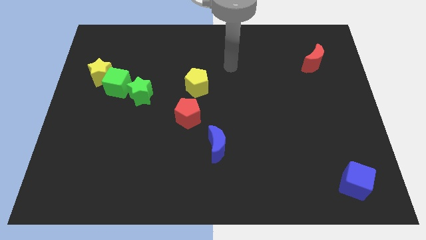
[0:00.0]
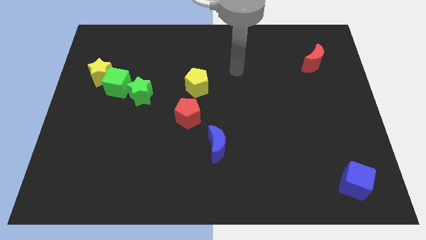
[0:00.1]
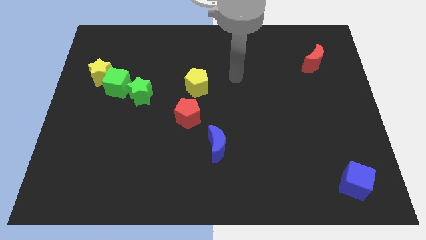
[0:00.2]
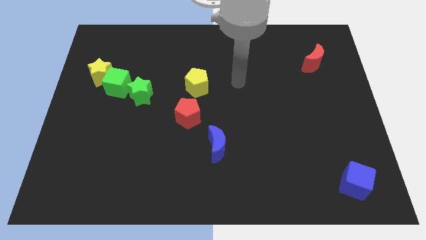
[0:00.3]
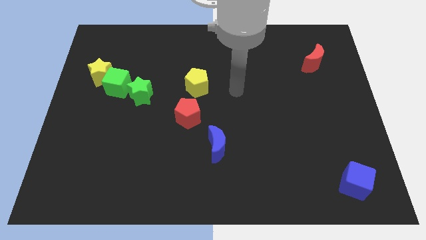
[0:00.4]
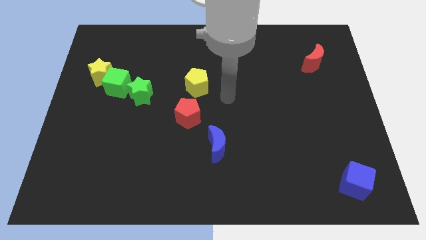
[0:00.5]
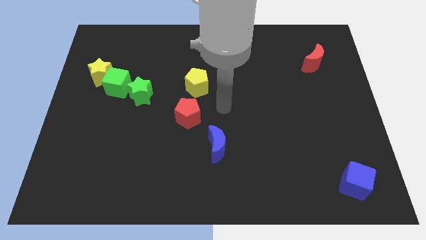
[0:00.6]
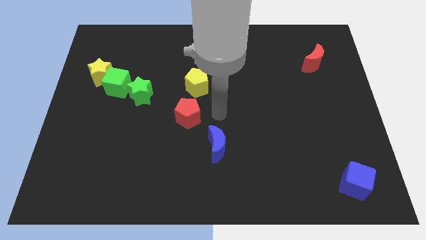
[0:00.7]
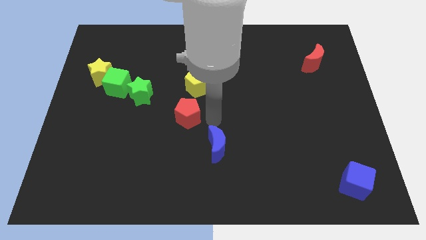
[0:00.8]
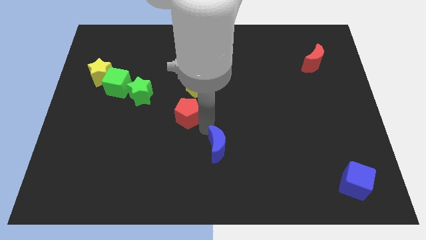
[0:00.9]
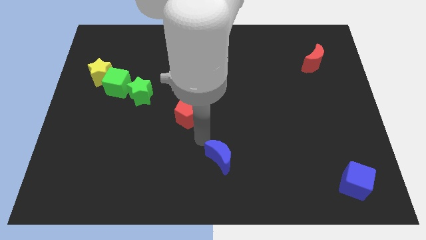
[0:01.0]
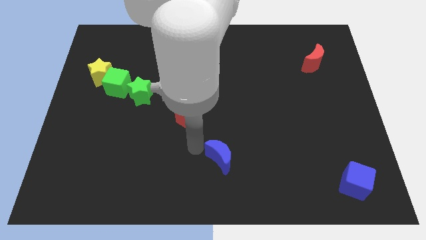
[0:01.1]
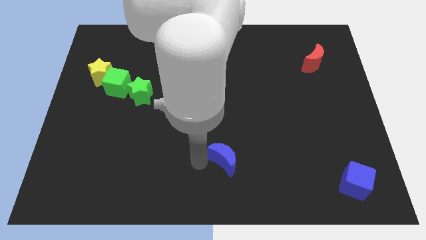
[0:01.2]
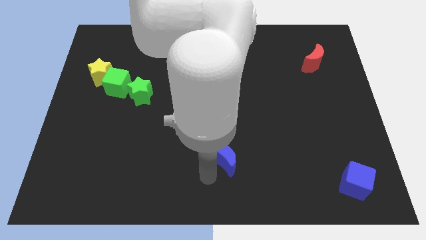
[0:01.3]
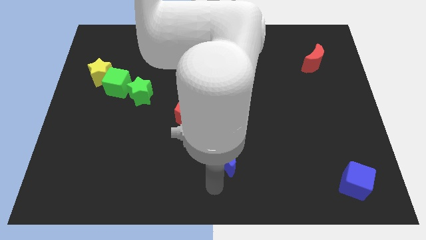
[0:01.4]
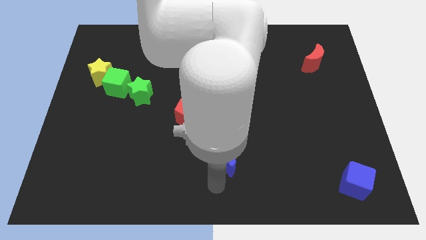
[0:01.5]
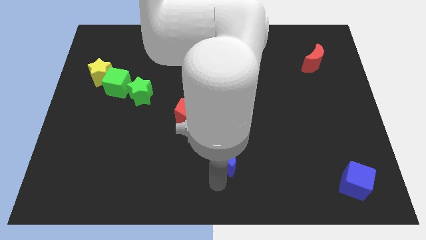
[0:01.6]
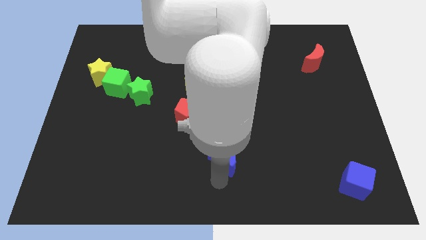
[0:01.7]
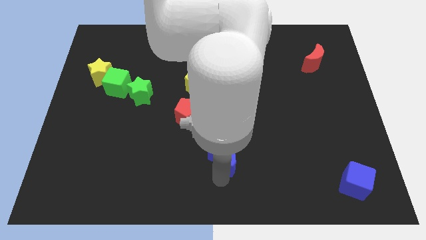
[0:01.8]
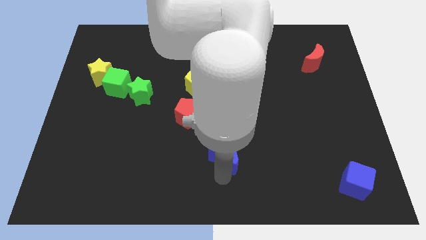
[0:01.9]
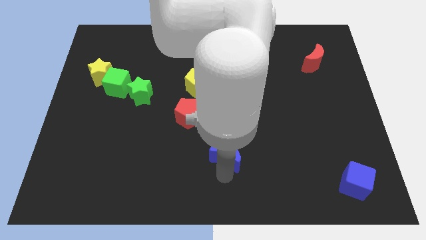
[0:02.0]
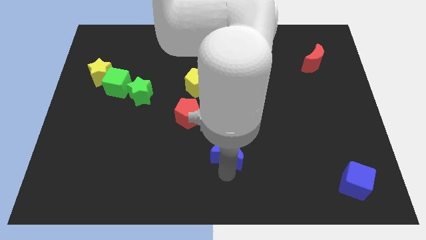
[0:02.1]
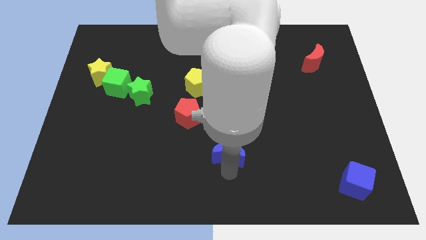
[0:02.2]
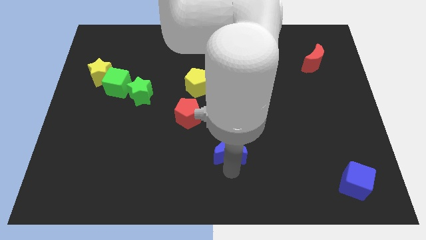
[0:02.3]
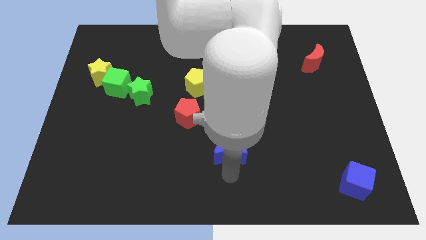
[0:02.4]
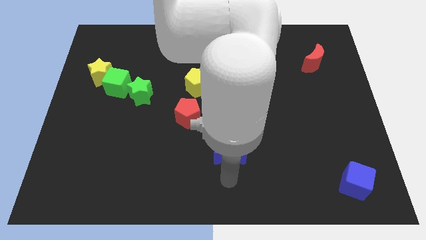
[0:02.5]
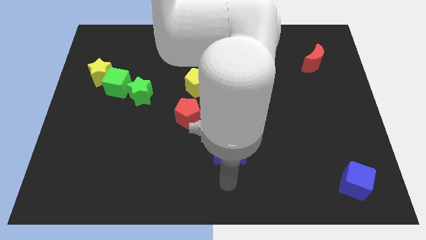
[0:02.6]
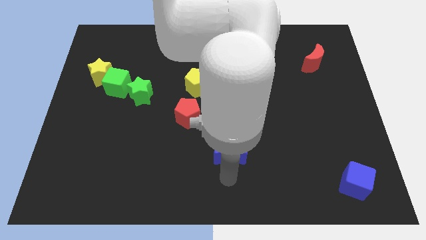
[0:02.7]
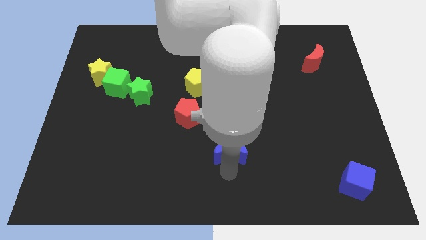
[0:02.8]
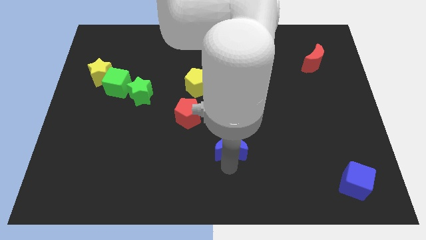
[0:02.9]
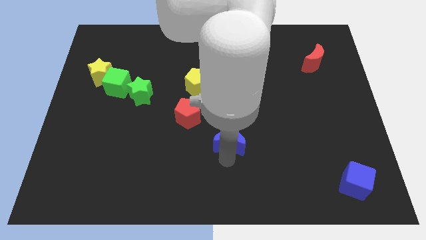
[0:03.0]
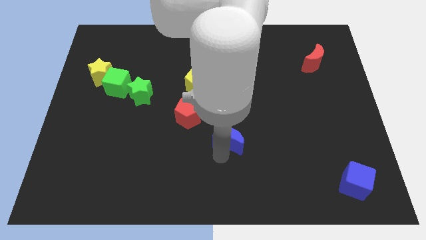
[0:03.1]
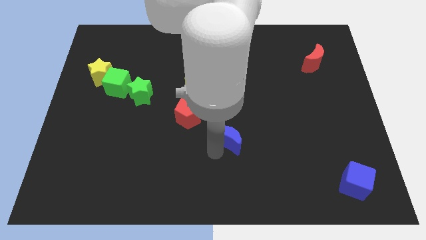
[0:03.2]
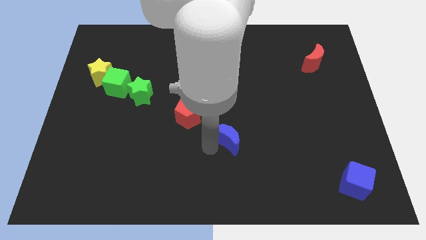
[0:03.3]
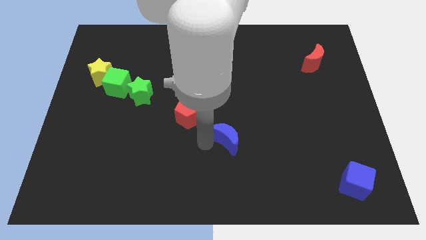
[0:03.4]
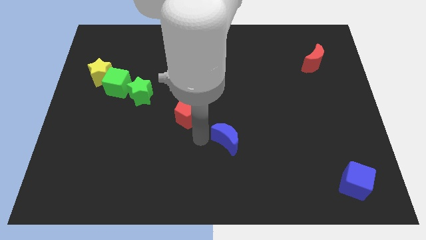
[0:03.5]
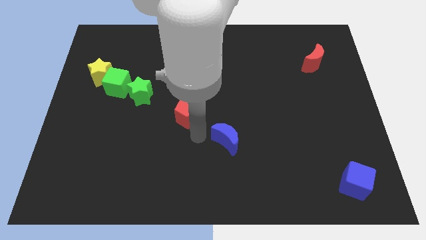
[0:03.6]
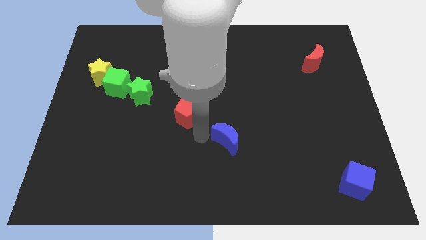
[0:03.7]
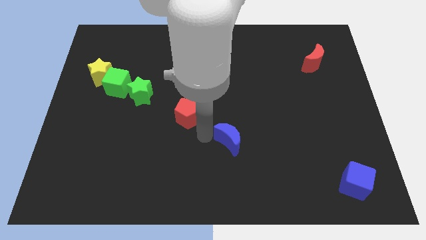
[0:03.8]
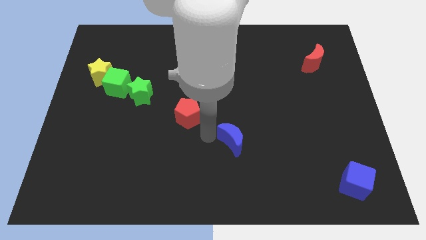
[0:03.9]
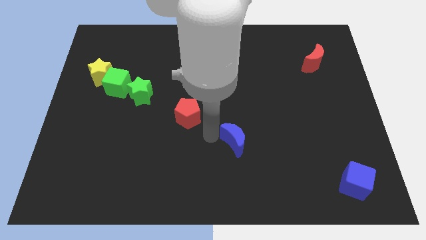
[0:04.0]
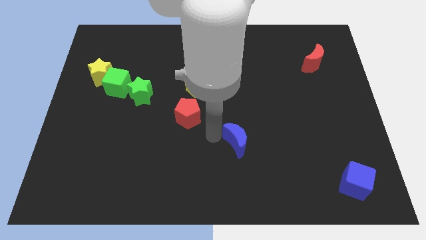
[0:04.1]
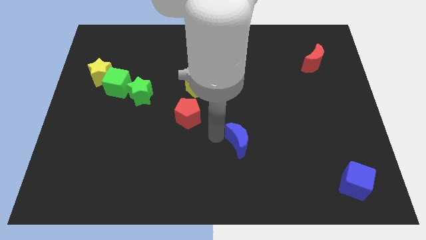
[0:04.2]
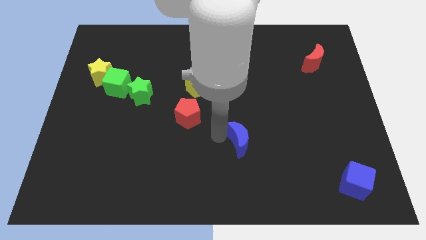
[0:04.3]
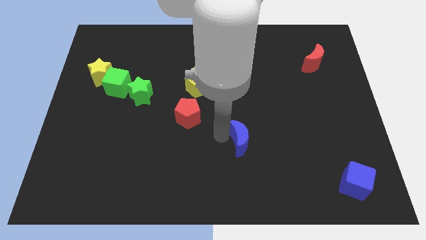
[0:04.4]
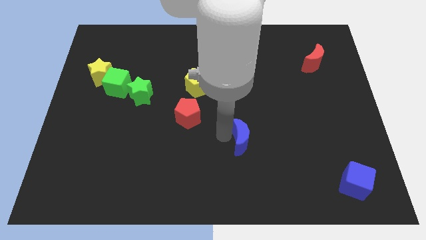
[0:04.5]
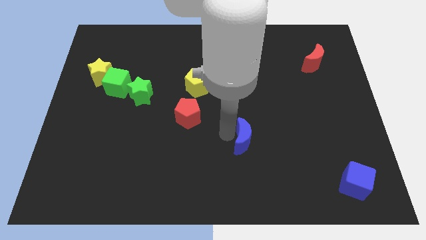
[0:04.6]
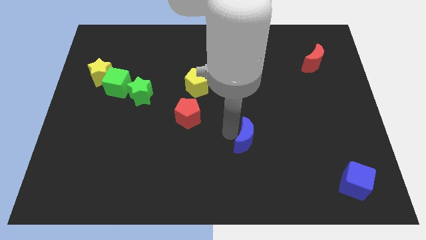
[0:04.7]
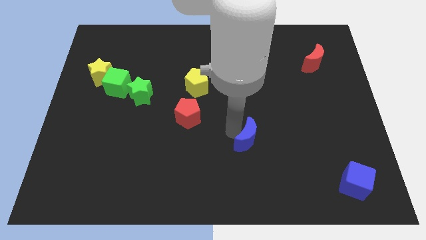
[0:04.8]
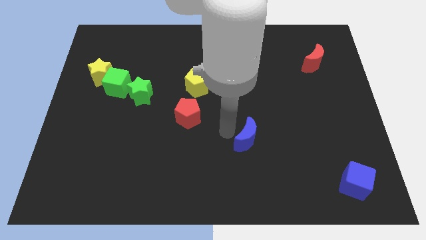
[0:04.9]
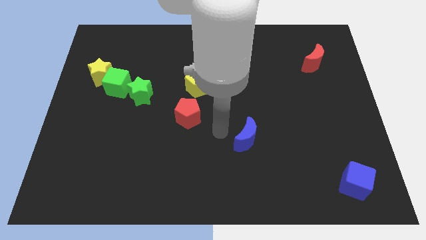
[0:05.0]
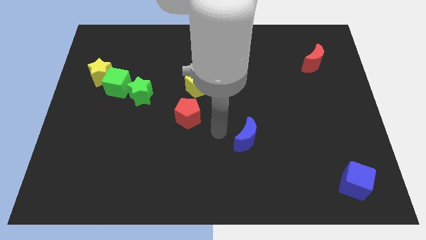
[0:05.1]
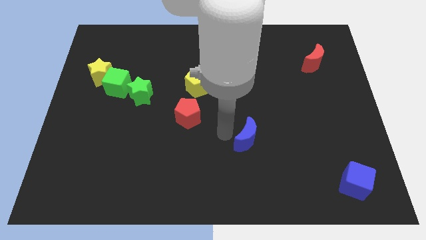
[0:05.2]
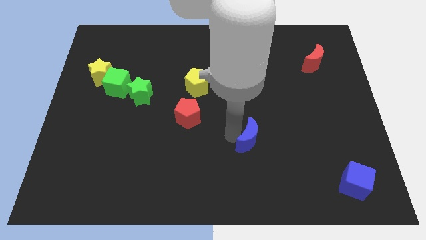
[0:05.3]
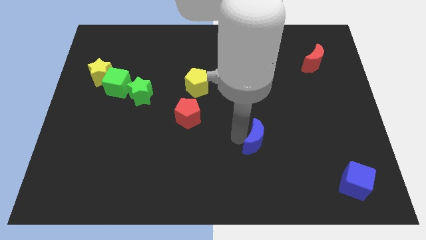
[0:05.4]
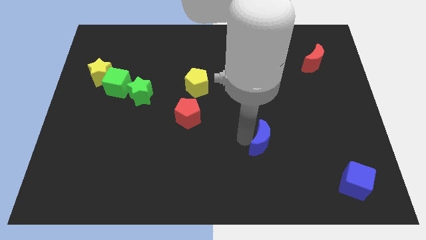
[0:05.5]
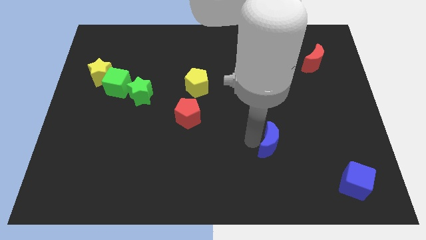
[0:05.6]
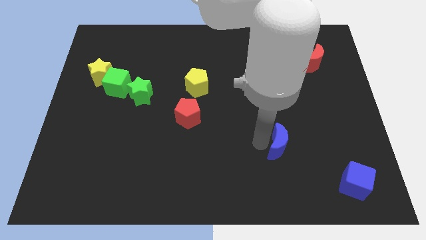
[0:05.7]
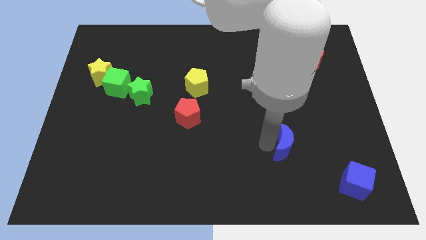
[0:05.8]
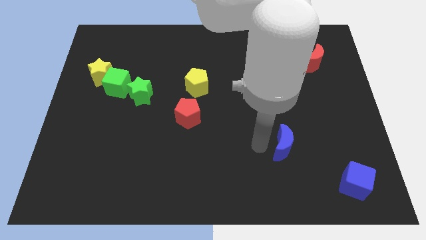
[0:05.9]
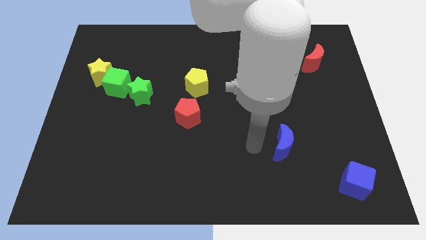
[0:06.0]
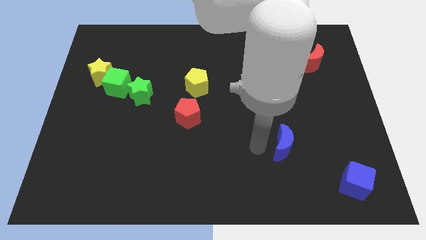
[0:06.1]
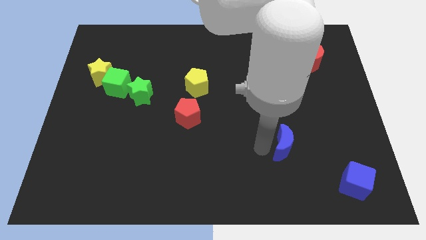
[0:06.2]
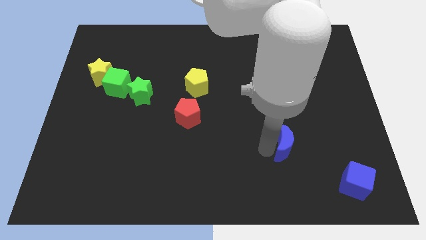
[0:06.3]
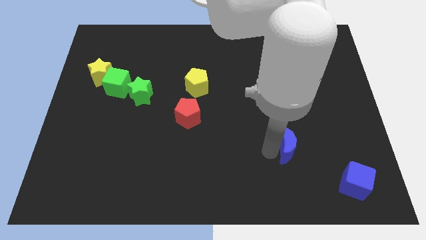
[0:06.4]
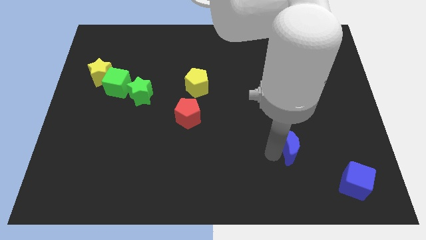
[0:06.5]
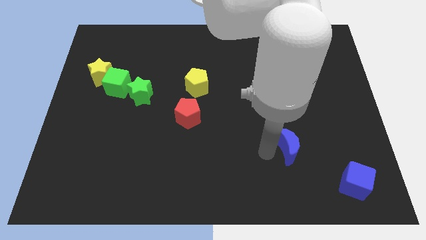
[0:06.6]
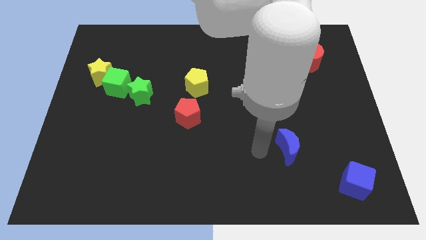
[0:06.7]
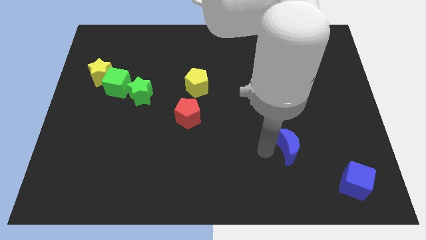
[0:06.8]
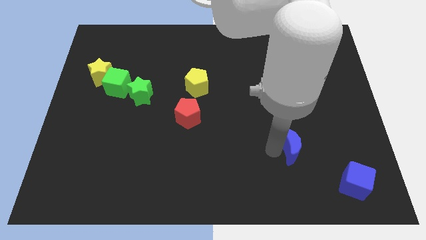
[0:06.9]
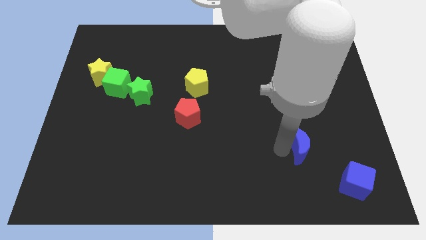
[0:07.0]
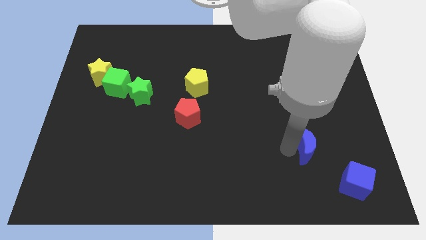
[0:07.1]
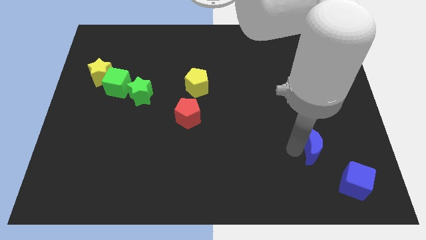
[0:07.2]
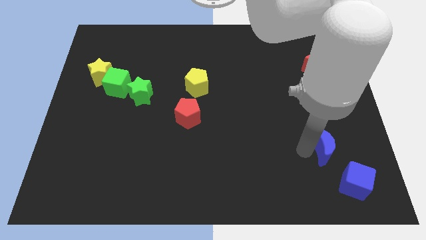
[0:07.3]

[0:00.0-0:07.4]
move the blue moon to the top of the blue cube
